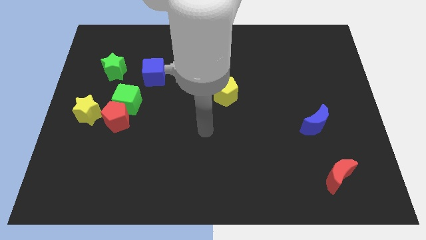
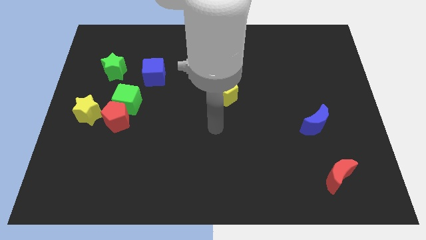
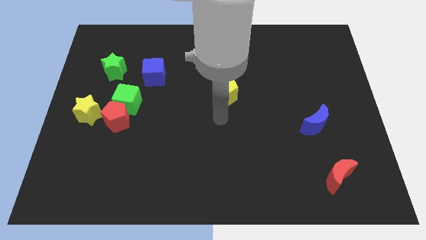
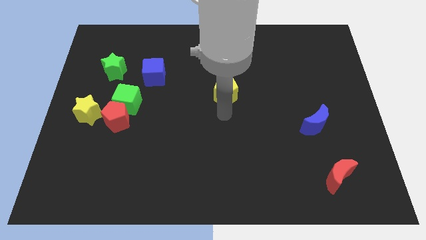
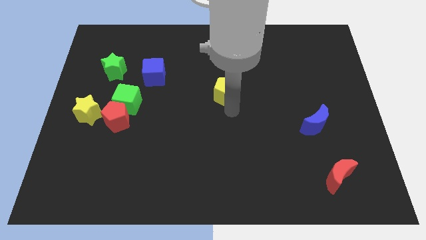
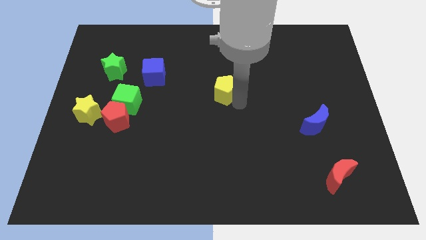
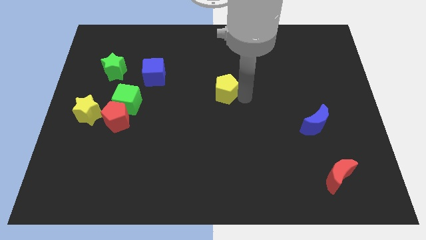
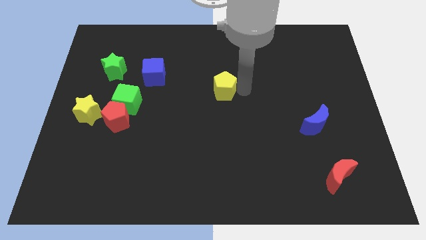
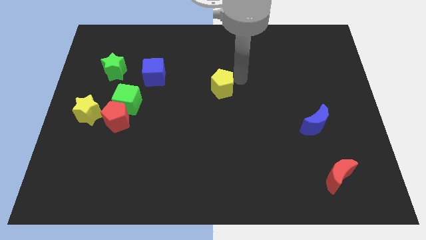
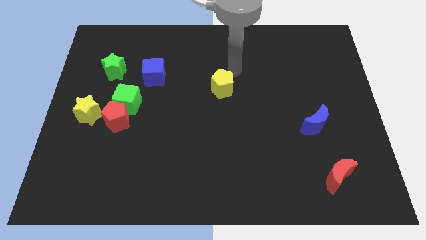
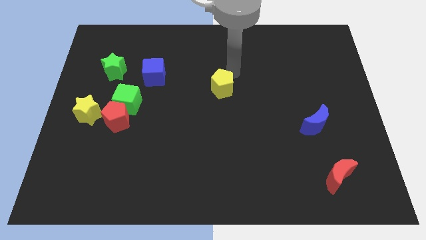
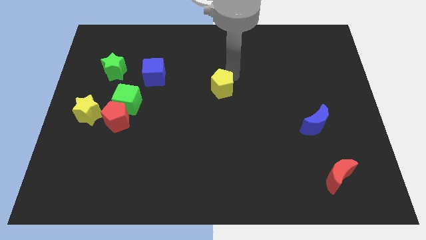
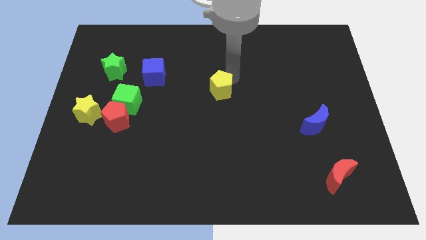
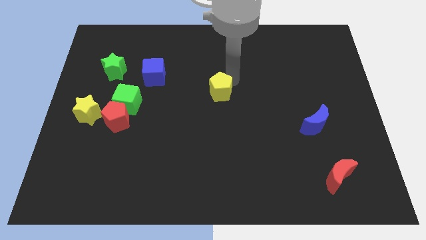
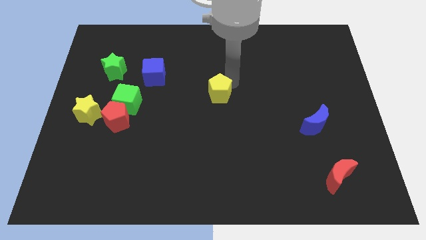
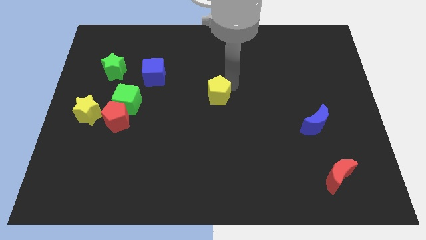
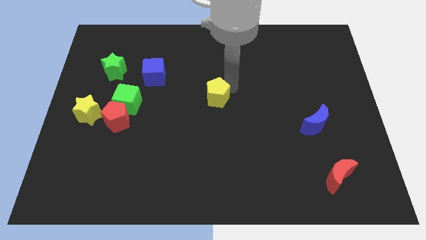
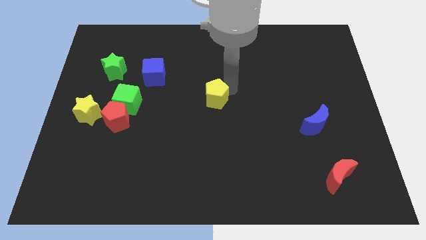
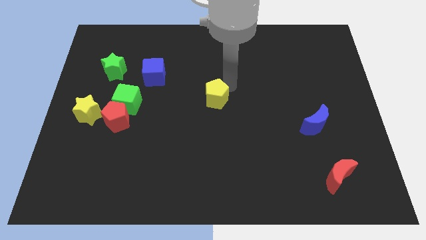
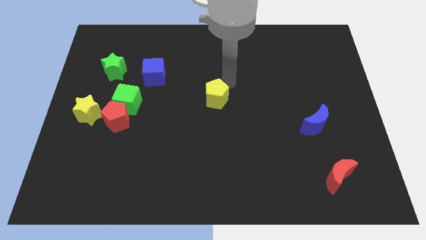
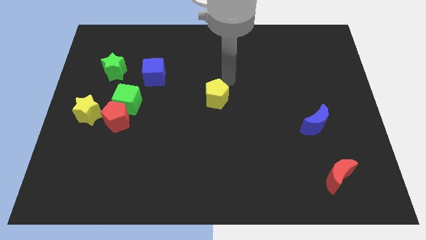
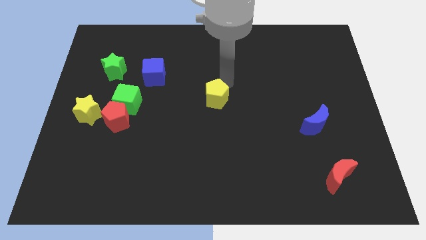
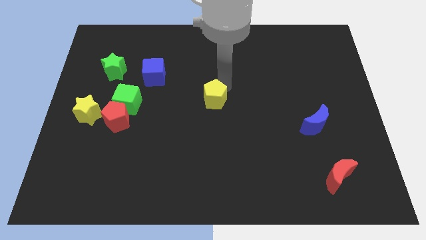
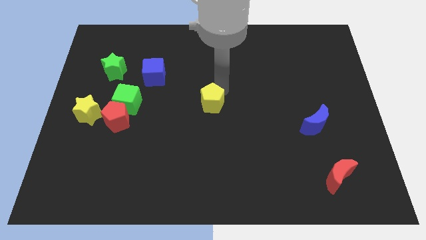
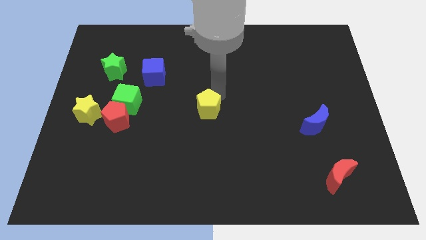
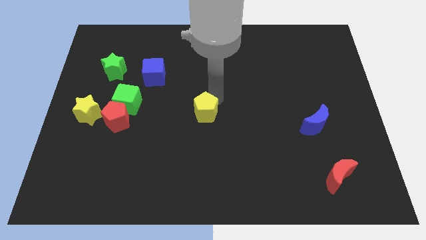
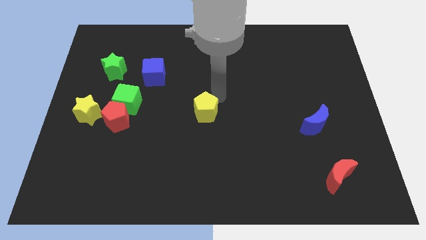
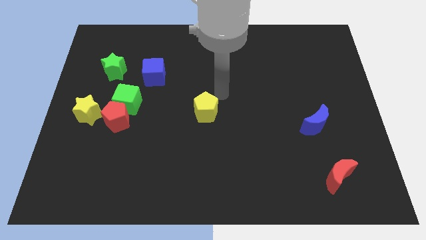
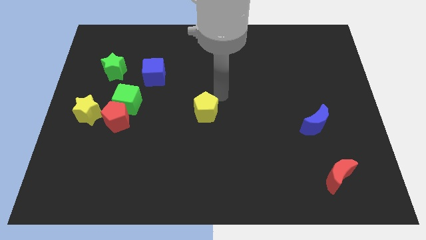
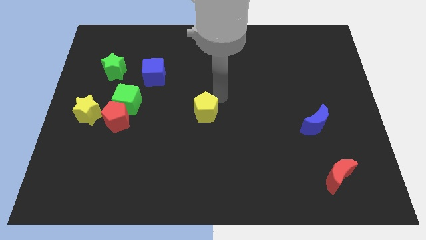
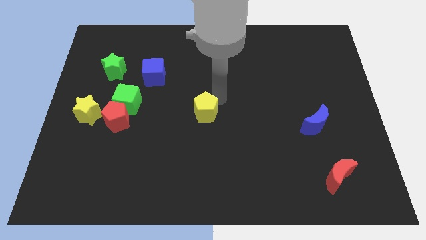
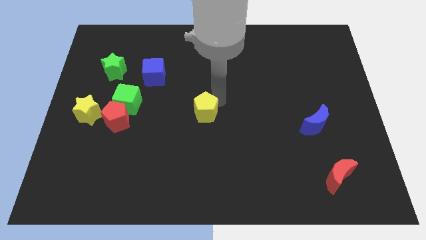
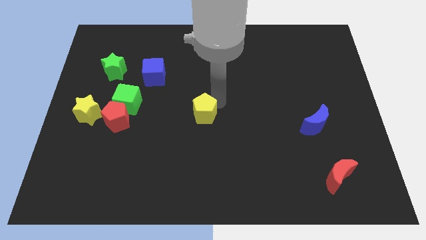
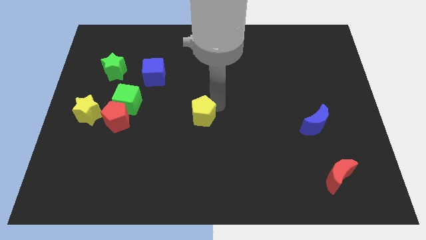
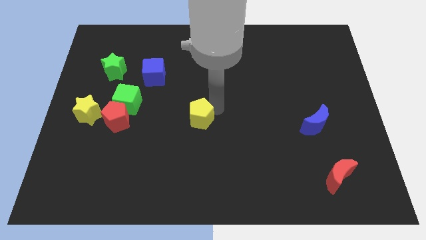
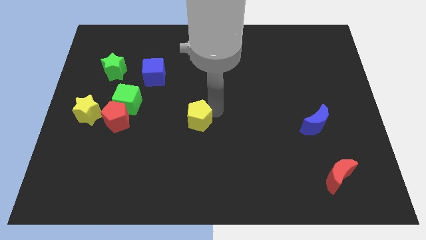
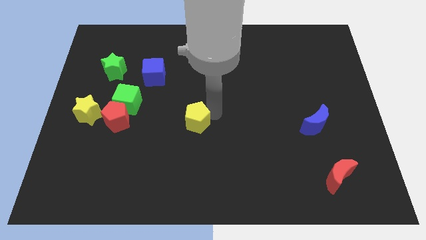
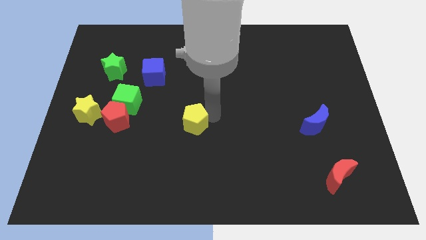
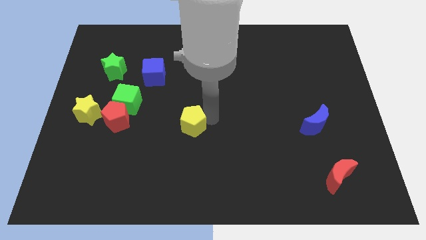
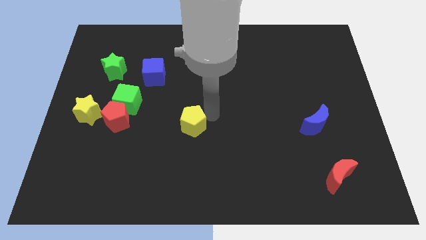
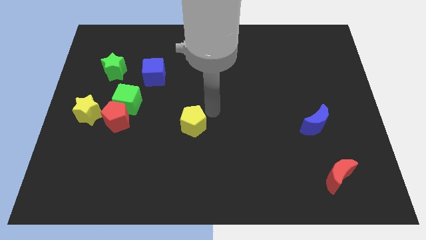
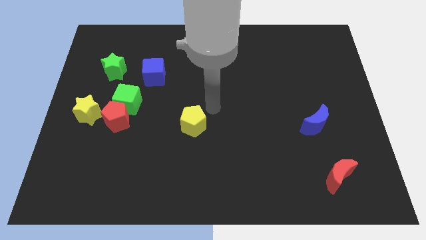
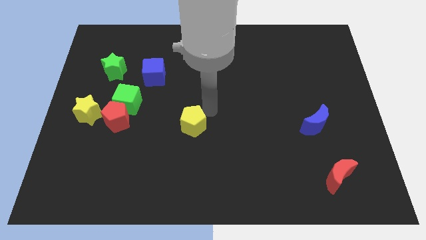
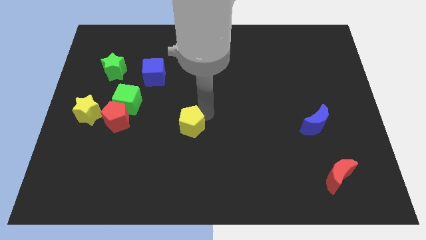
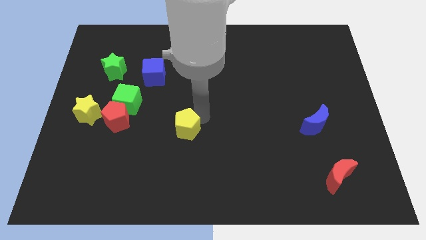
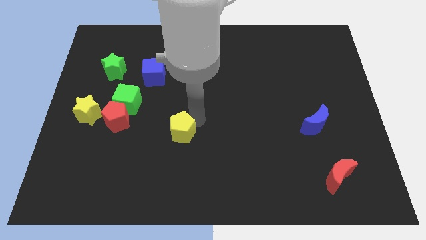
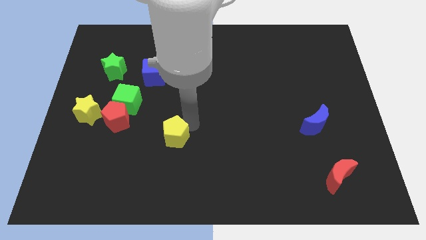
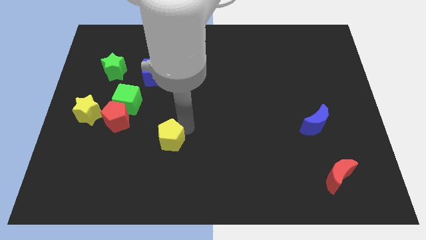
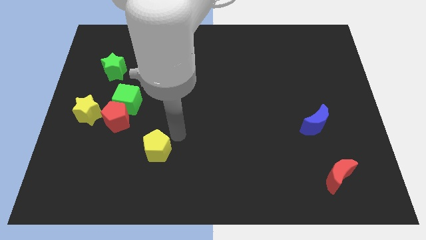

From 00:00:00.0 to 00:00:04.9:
push the yellow pentagon downwards and to the left

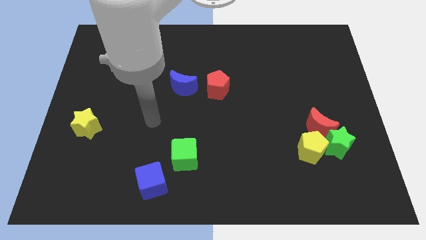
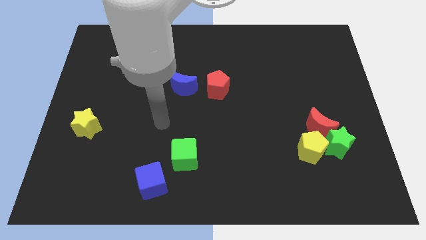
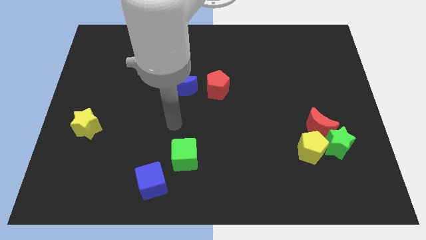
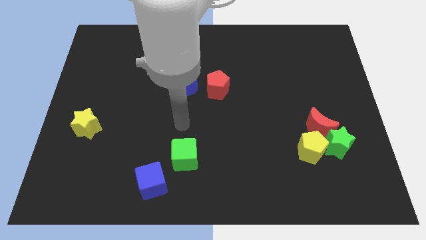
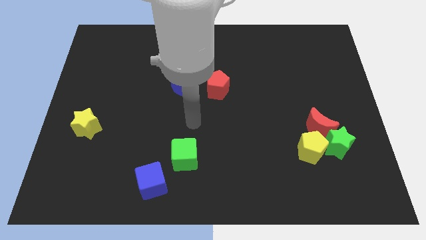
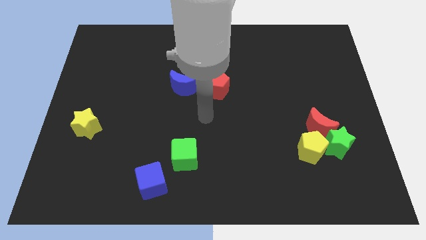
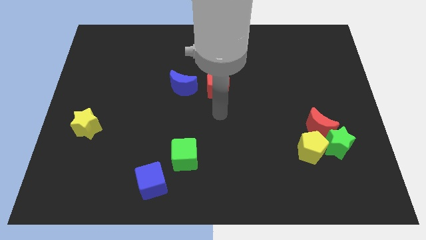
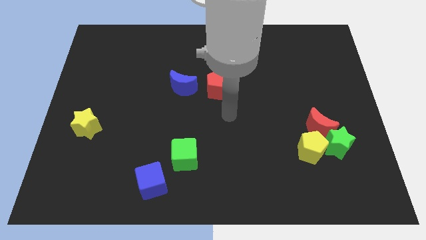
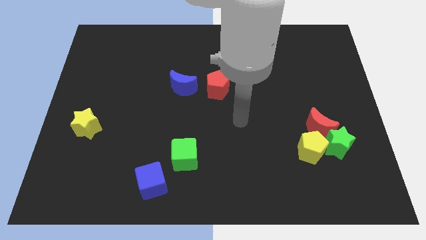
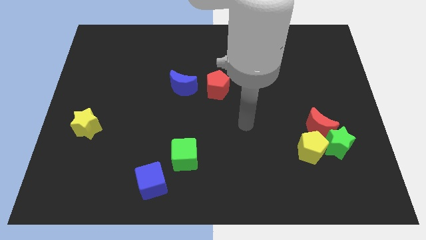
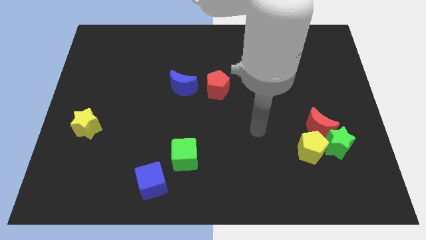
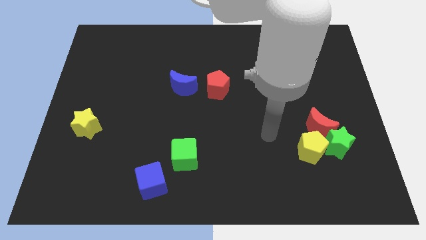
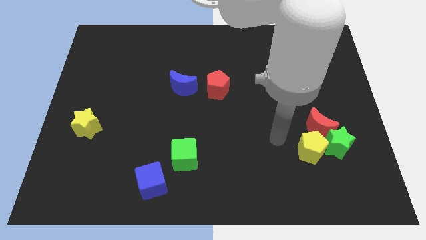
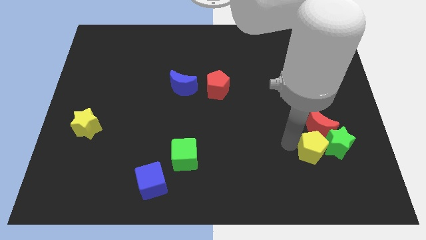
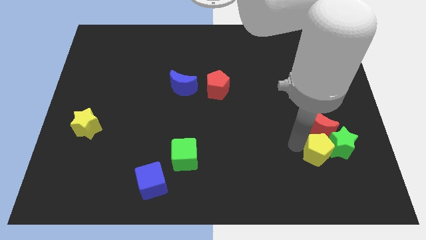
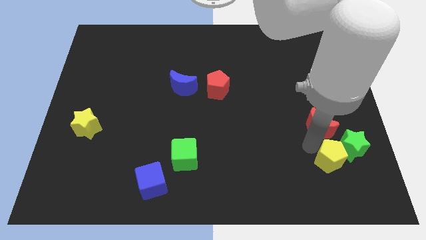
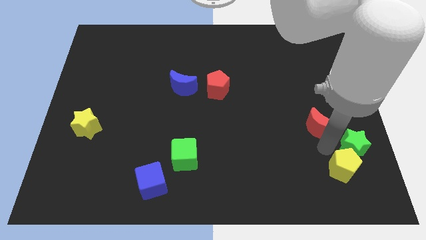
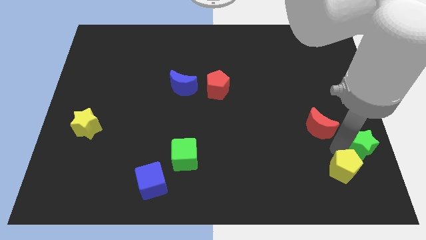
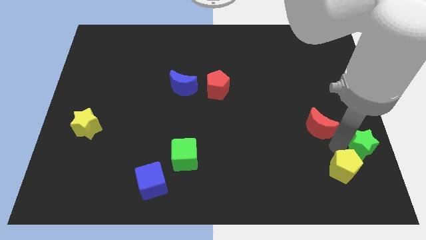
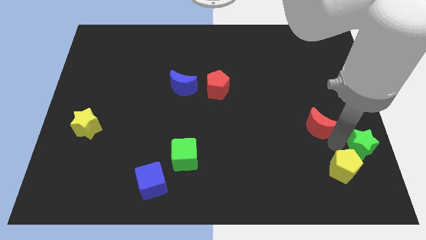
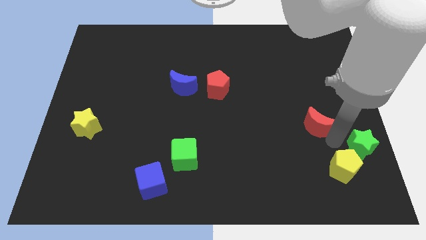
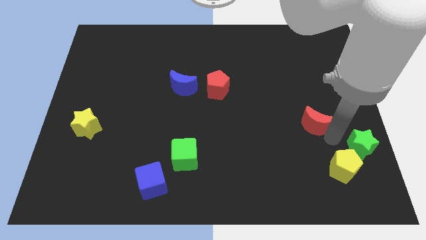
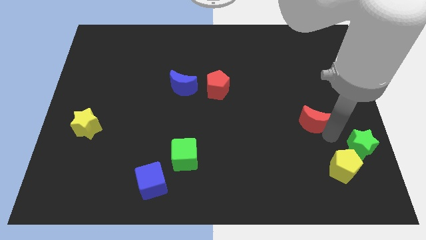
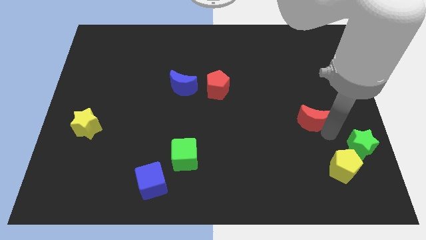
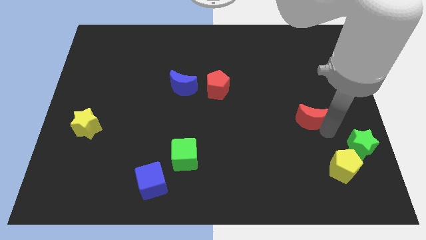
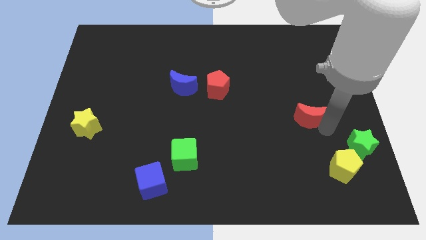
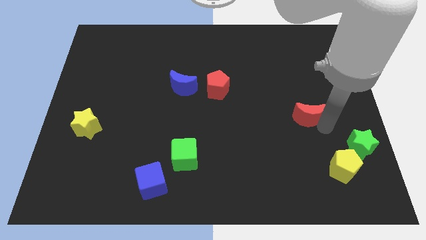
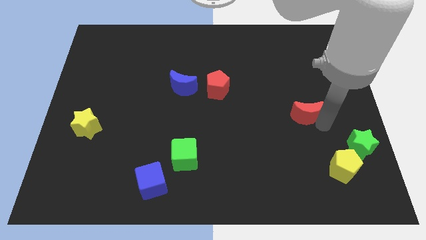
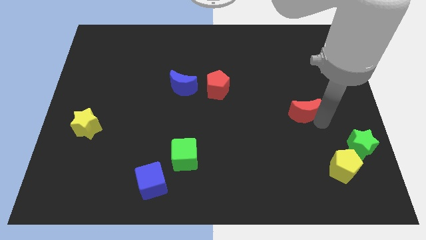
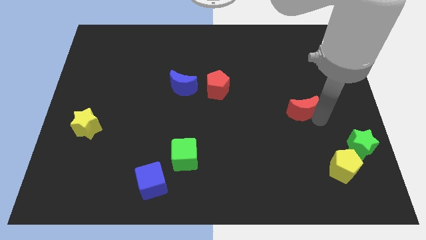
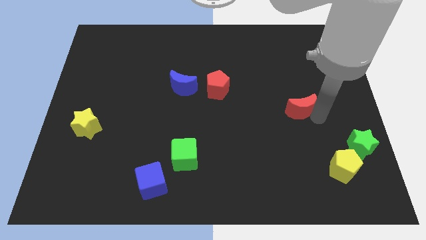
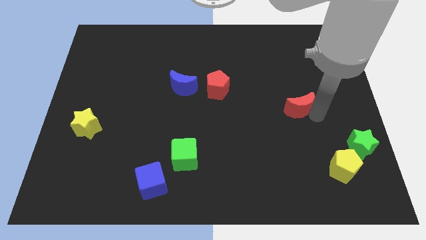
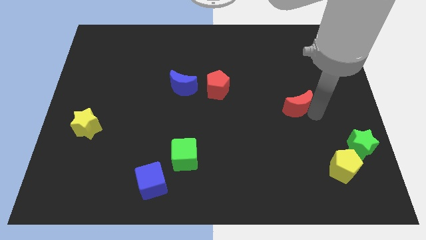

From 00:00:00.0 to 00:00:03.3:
slightly push the red moon diagonally up and left
